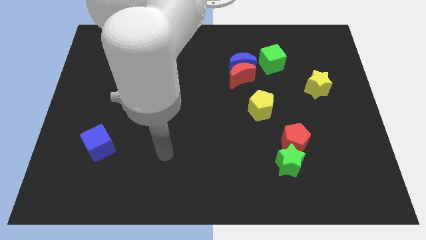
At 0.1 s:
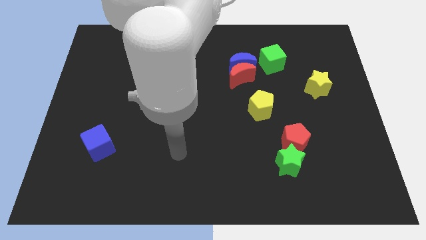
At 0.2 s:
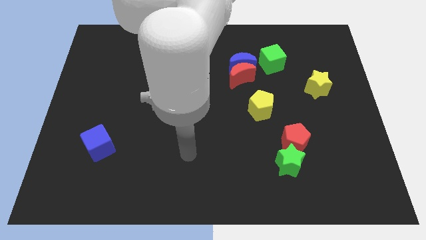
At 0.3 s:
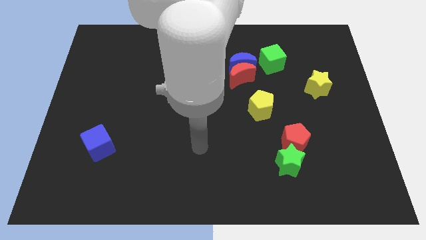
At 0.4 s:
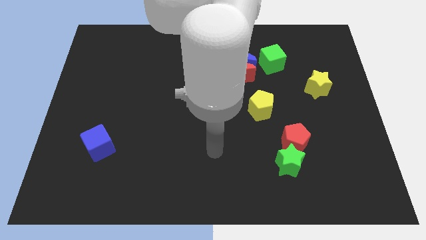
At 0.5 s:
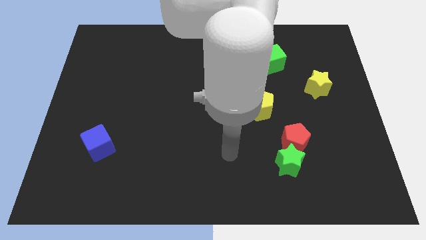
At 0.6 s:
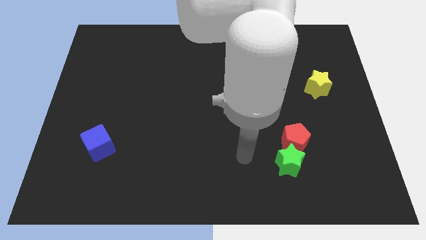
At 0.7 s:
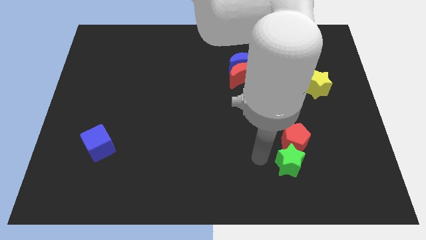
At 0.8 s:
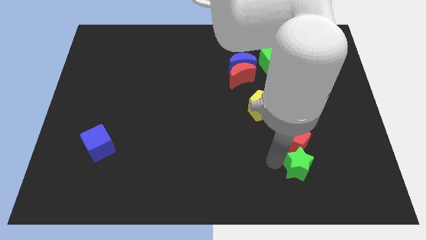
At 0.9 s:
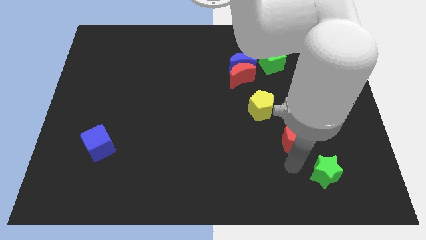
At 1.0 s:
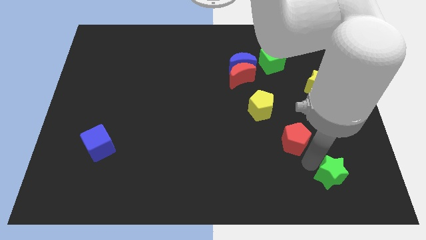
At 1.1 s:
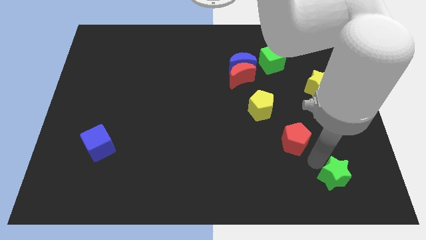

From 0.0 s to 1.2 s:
pull the red pentagon apart from the green star

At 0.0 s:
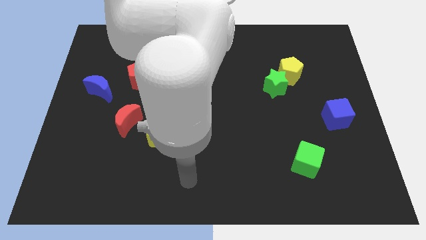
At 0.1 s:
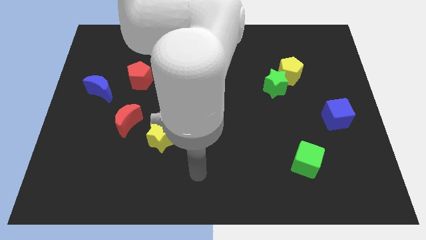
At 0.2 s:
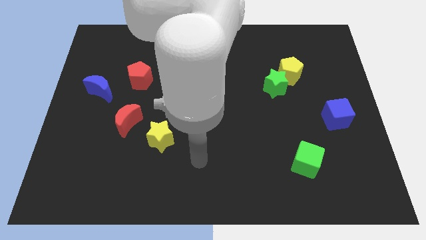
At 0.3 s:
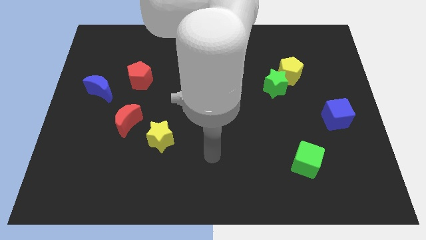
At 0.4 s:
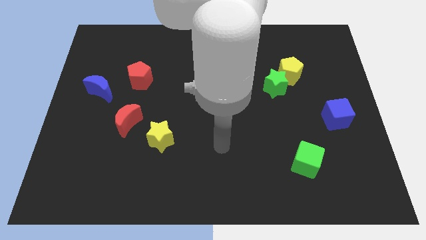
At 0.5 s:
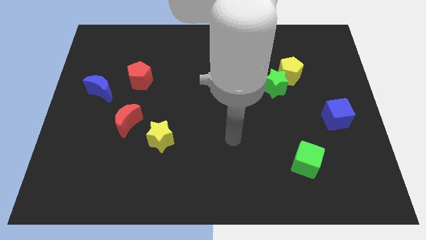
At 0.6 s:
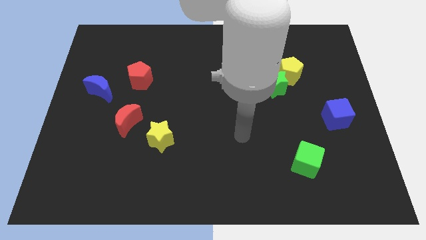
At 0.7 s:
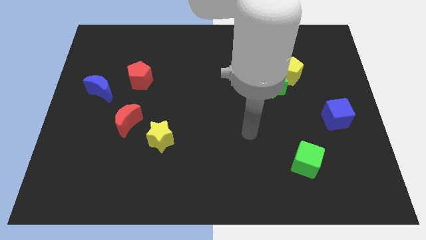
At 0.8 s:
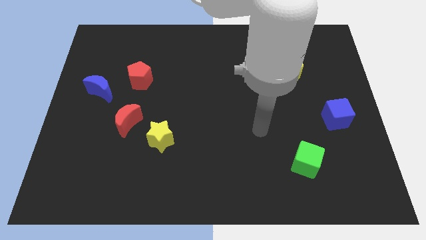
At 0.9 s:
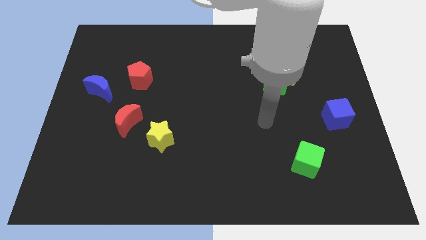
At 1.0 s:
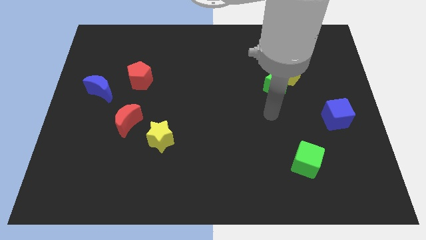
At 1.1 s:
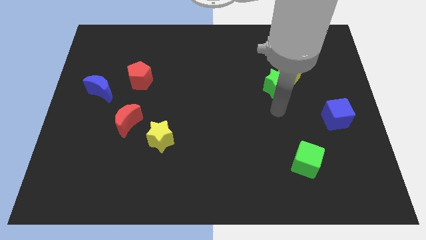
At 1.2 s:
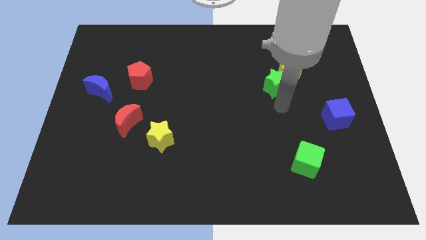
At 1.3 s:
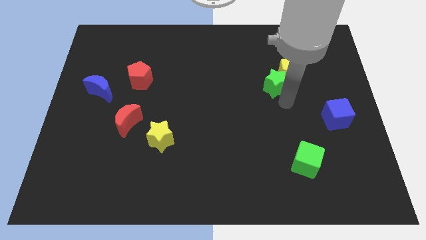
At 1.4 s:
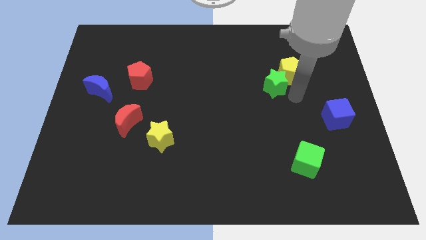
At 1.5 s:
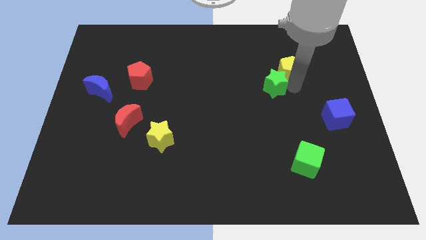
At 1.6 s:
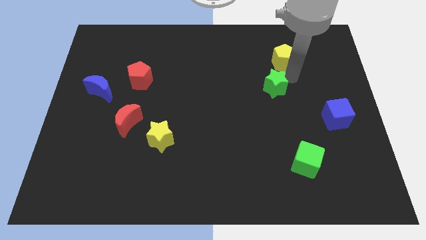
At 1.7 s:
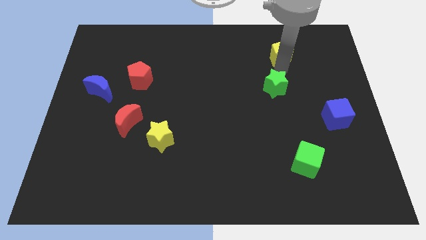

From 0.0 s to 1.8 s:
pull the green star apart from the yellow pentagon

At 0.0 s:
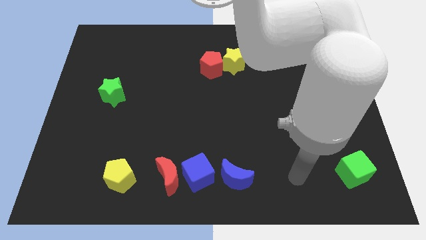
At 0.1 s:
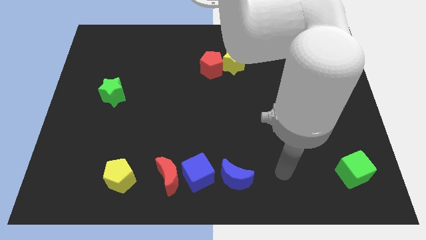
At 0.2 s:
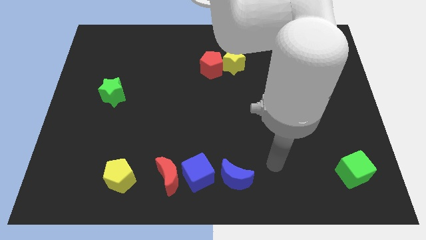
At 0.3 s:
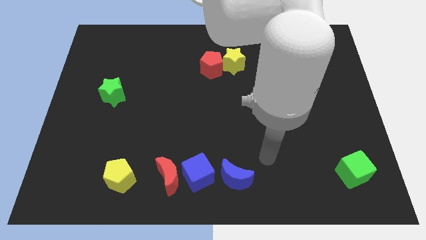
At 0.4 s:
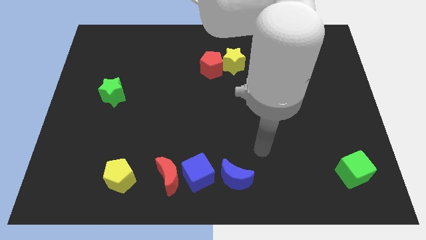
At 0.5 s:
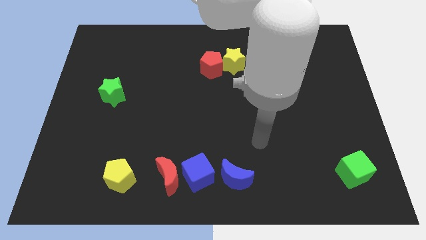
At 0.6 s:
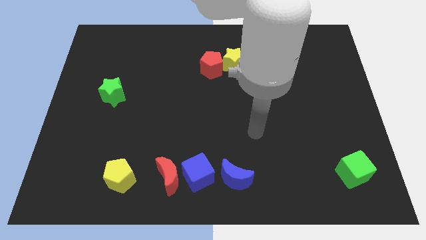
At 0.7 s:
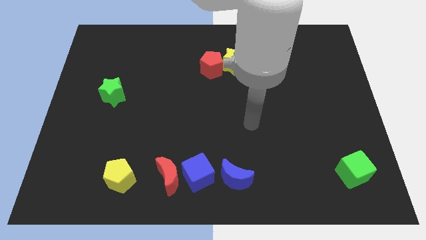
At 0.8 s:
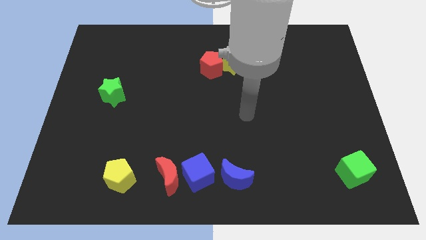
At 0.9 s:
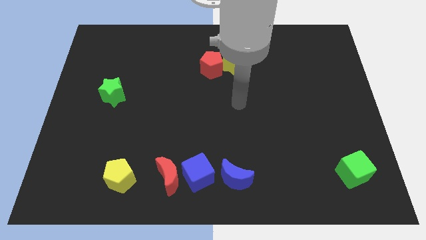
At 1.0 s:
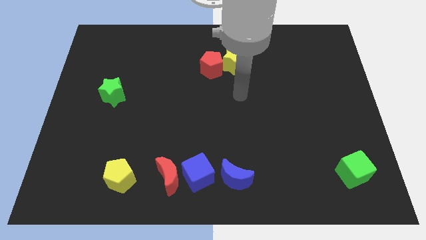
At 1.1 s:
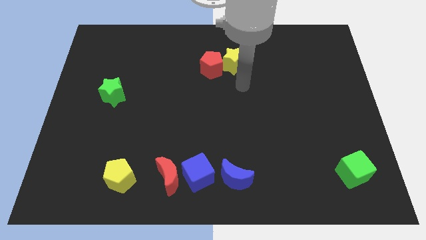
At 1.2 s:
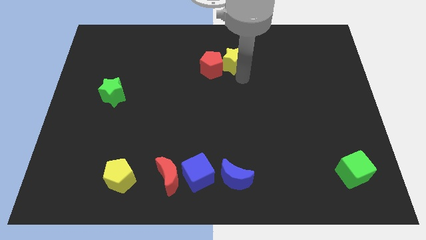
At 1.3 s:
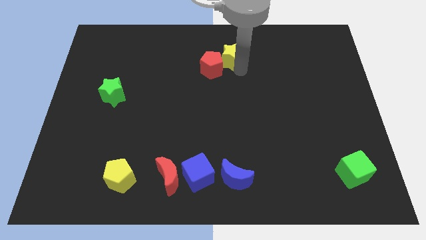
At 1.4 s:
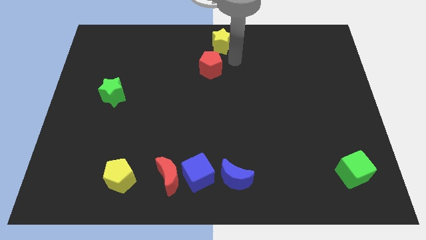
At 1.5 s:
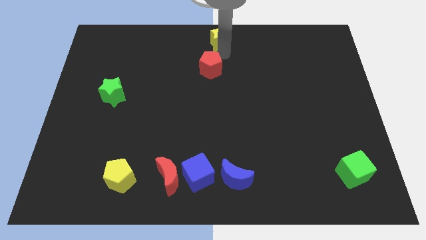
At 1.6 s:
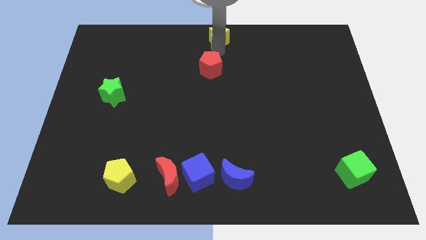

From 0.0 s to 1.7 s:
pull the red pentagon apart from the yellow star

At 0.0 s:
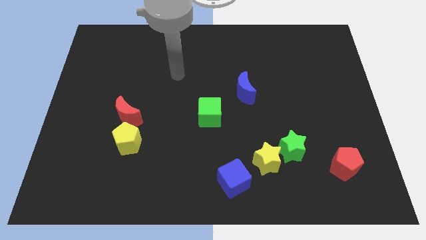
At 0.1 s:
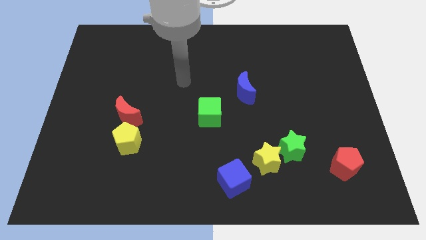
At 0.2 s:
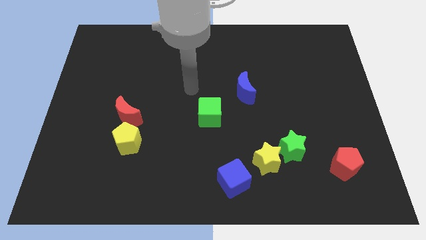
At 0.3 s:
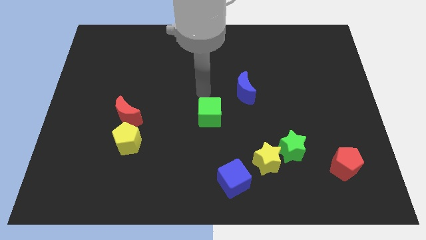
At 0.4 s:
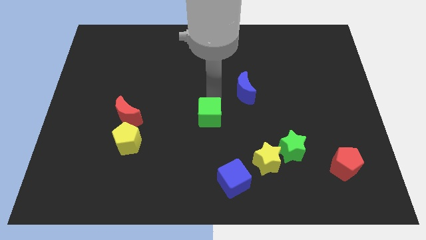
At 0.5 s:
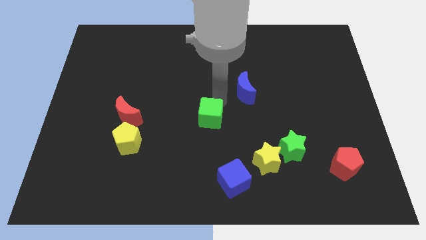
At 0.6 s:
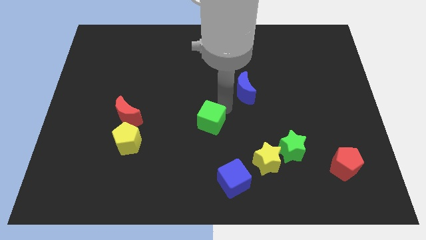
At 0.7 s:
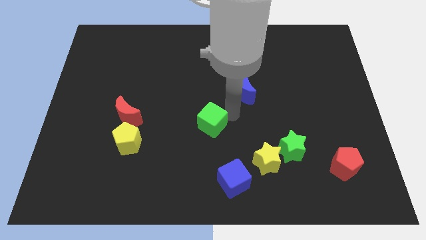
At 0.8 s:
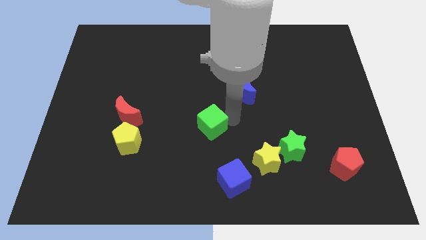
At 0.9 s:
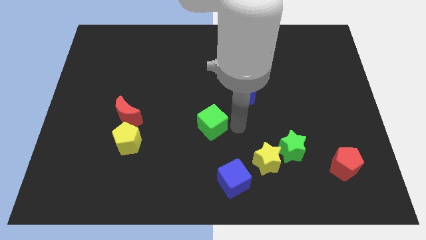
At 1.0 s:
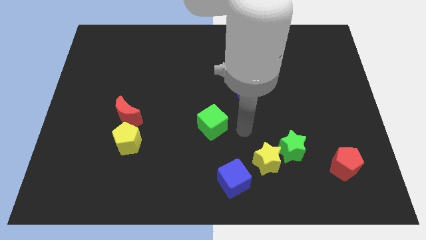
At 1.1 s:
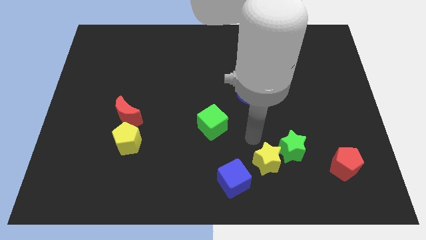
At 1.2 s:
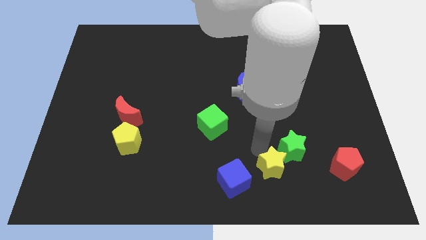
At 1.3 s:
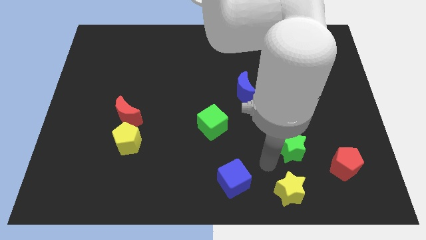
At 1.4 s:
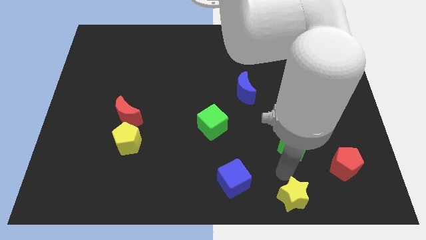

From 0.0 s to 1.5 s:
separate the green star from the yellow star

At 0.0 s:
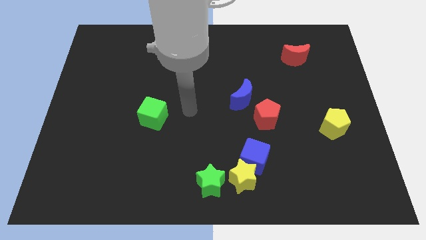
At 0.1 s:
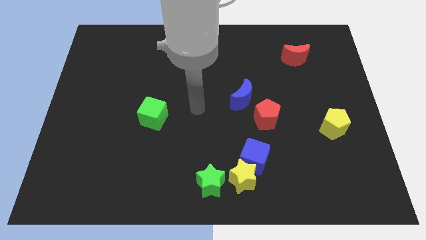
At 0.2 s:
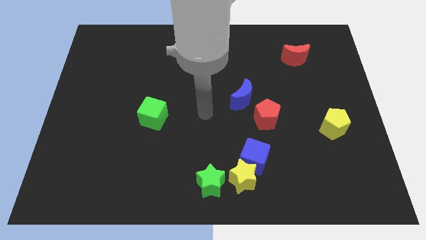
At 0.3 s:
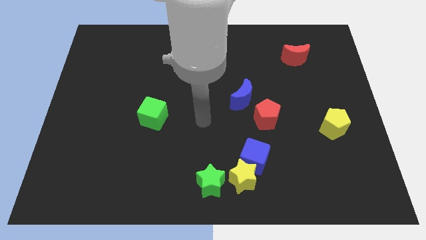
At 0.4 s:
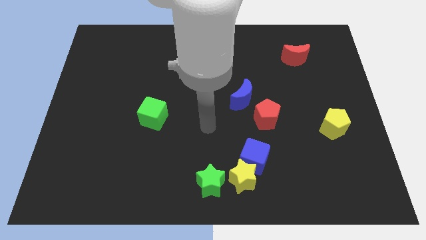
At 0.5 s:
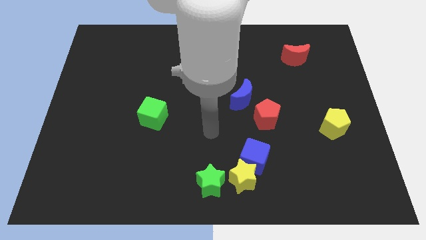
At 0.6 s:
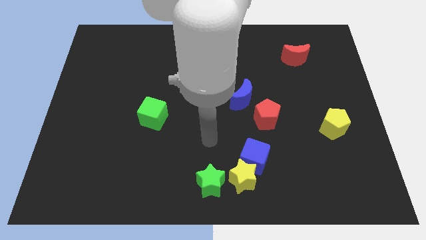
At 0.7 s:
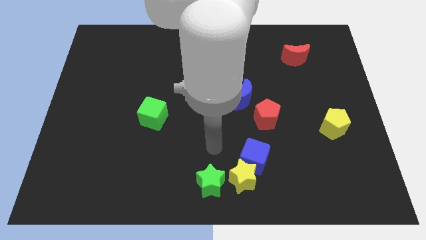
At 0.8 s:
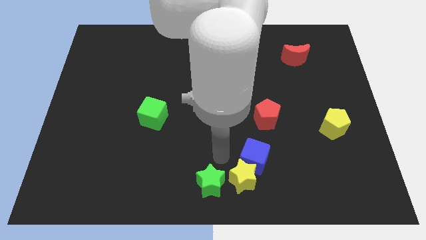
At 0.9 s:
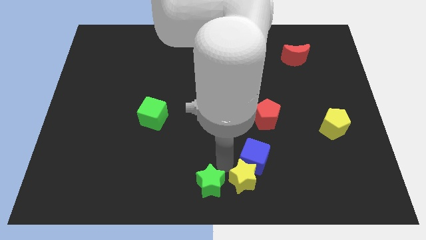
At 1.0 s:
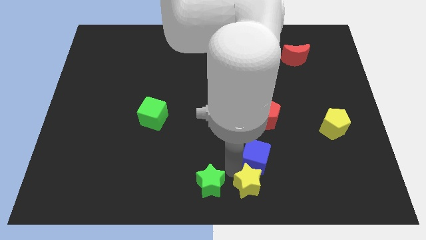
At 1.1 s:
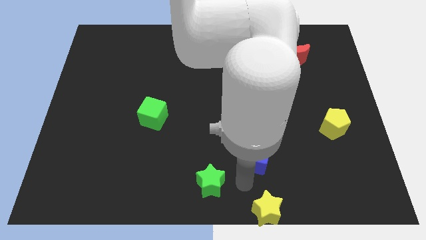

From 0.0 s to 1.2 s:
separate the blue cube from the yellow star

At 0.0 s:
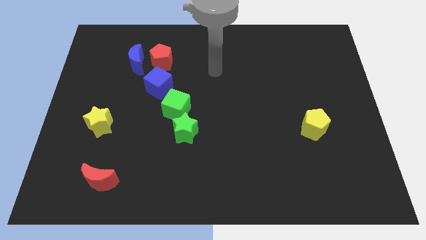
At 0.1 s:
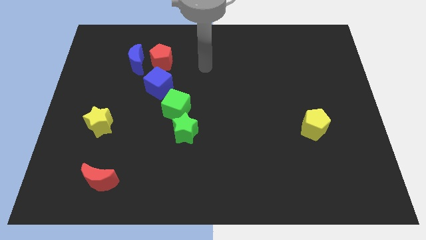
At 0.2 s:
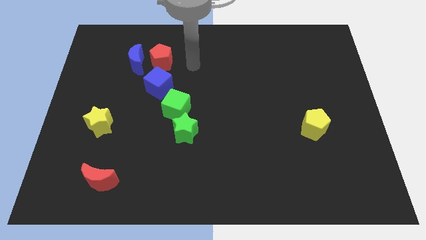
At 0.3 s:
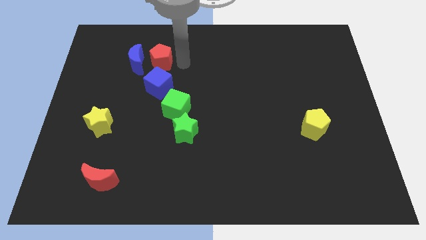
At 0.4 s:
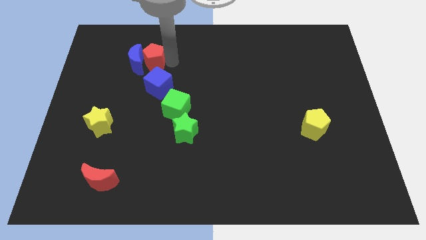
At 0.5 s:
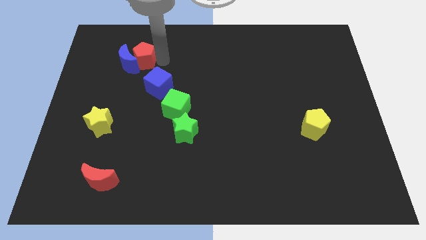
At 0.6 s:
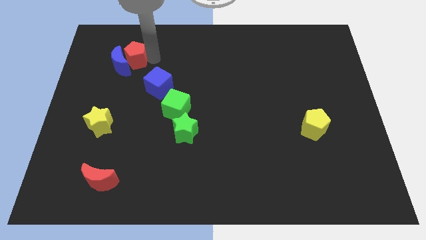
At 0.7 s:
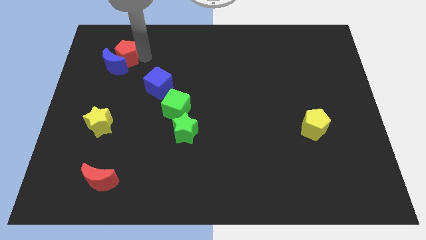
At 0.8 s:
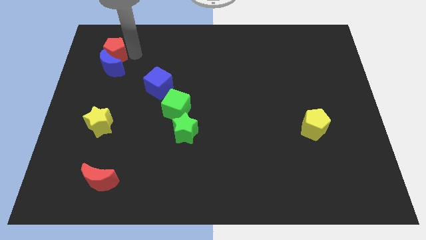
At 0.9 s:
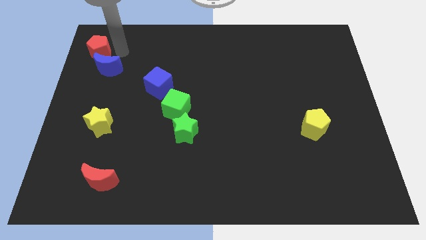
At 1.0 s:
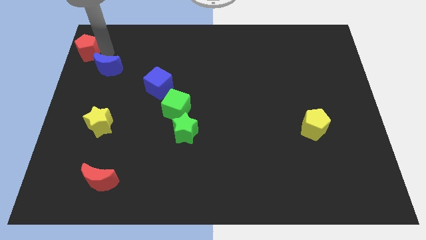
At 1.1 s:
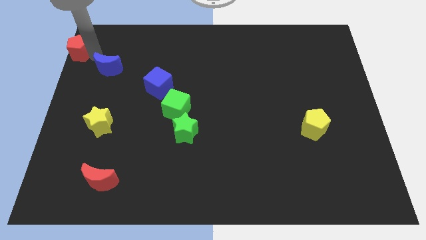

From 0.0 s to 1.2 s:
pull the blue moon apart from the red pentagon

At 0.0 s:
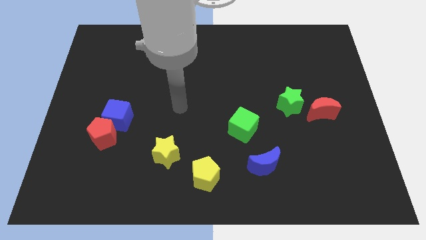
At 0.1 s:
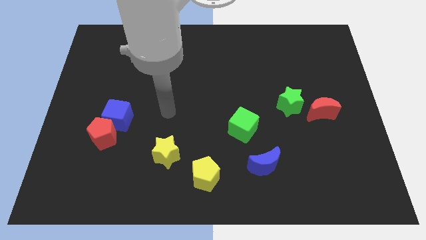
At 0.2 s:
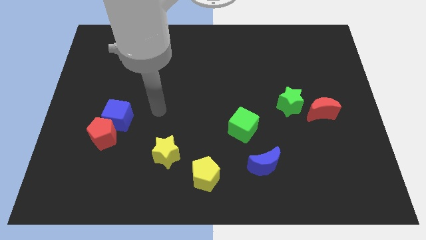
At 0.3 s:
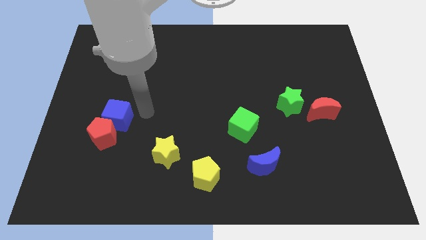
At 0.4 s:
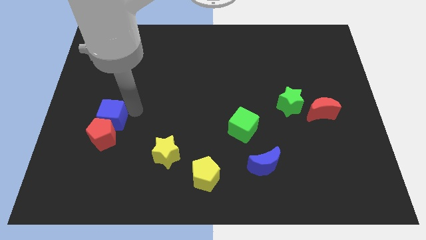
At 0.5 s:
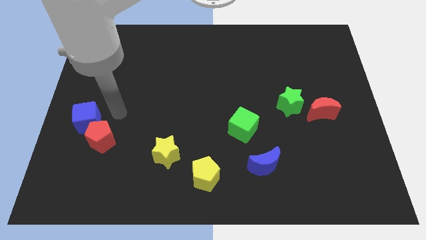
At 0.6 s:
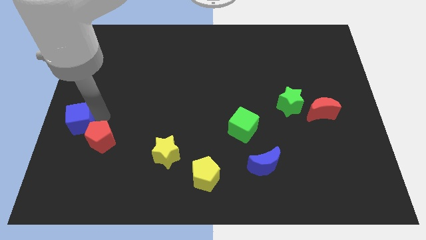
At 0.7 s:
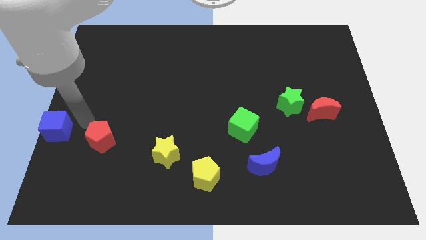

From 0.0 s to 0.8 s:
pull the red pentagon apart from the blue cube
